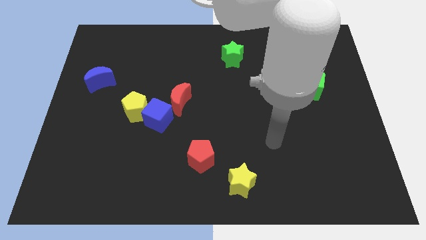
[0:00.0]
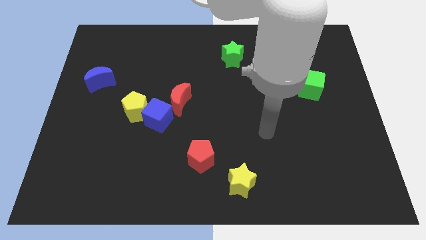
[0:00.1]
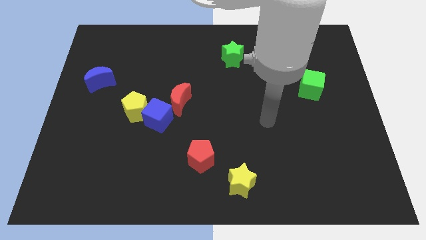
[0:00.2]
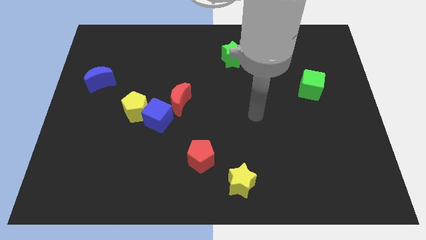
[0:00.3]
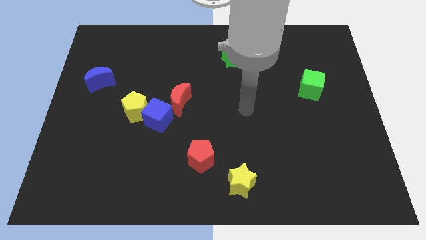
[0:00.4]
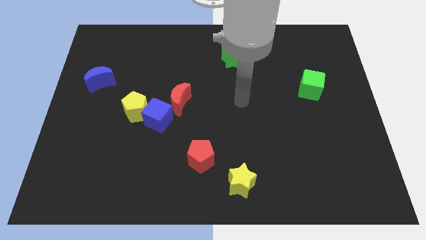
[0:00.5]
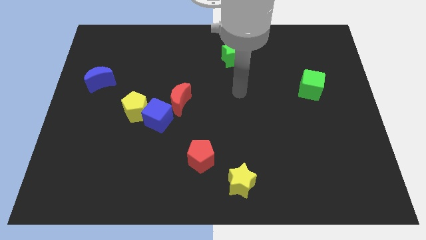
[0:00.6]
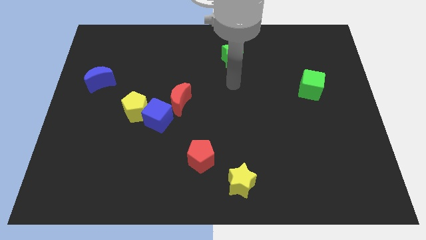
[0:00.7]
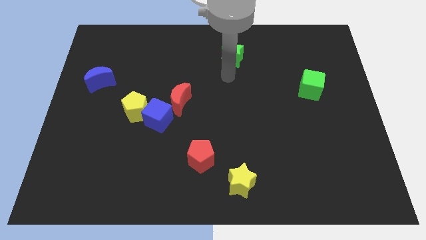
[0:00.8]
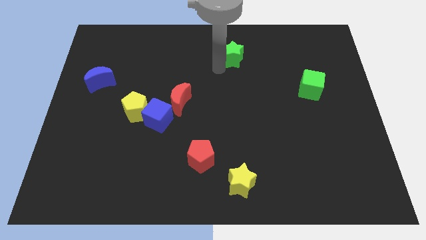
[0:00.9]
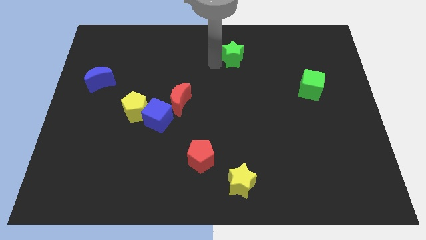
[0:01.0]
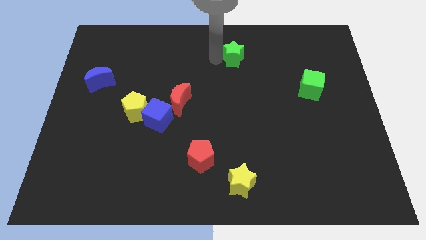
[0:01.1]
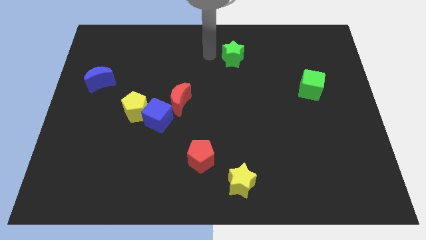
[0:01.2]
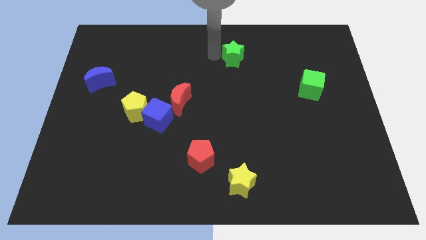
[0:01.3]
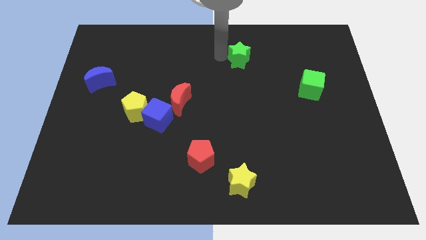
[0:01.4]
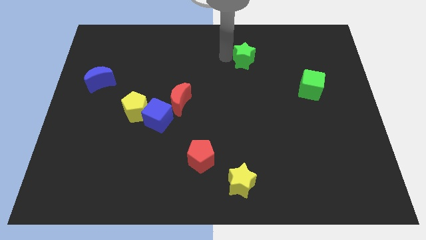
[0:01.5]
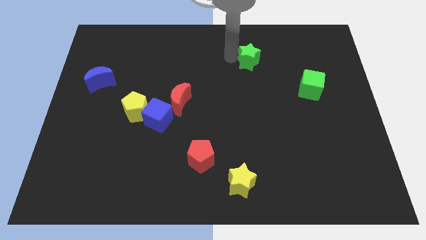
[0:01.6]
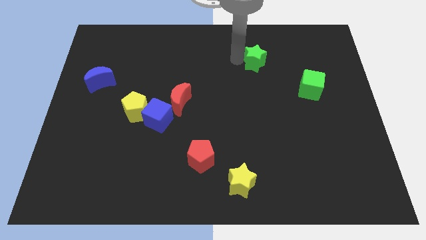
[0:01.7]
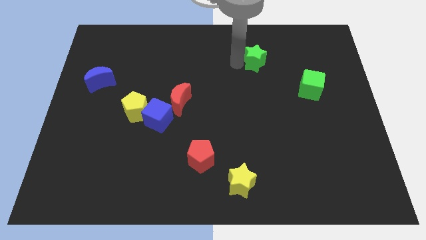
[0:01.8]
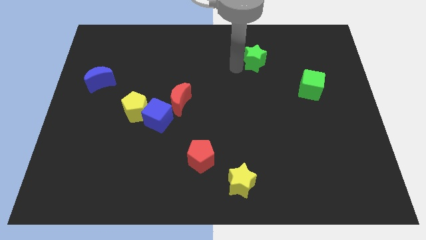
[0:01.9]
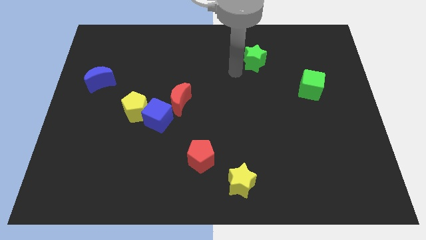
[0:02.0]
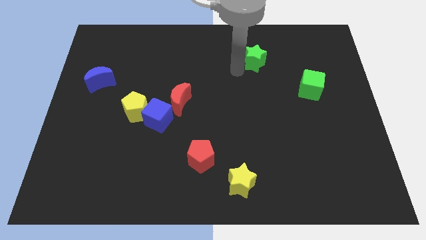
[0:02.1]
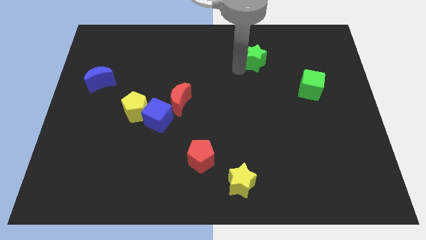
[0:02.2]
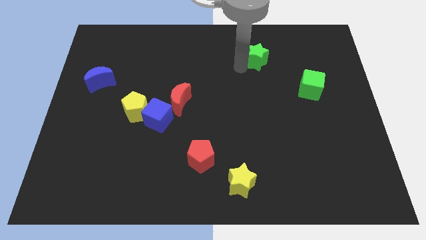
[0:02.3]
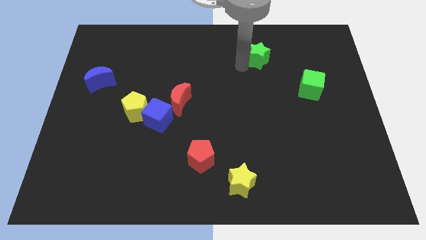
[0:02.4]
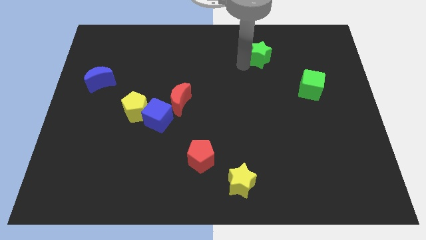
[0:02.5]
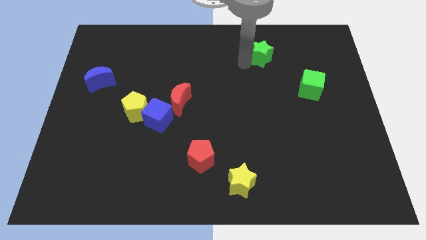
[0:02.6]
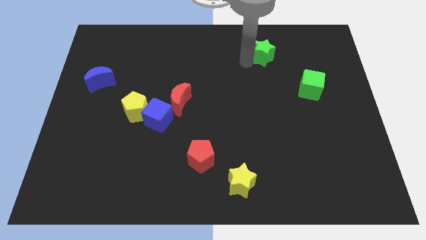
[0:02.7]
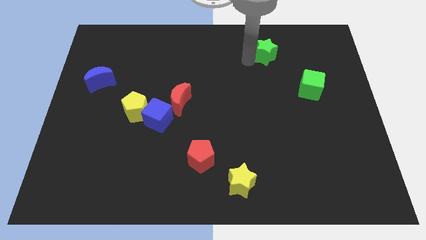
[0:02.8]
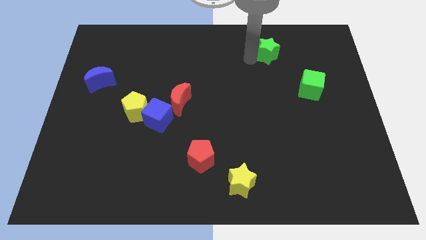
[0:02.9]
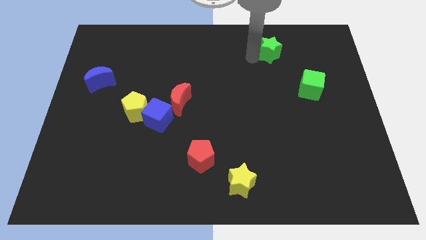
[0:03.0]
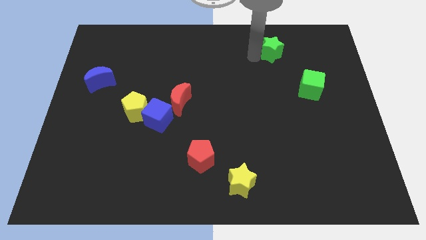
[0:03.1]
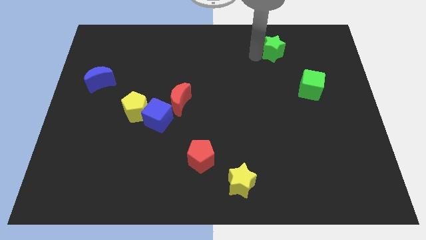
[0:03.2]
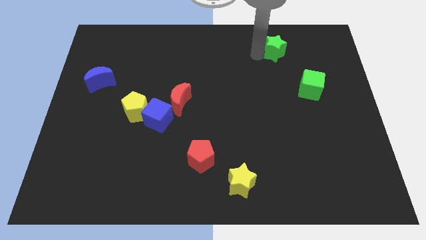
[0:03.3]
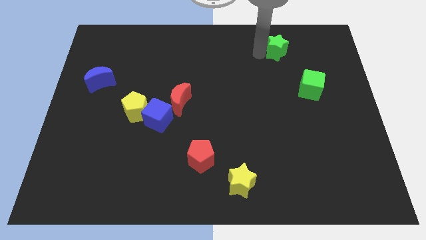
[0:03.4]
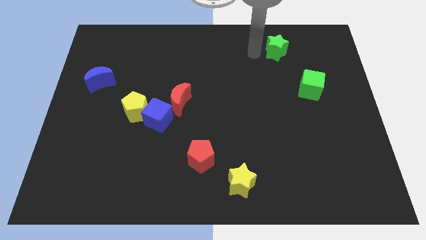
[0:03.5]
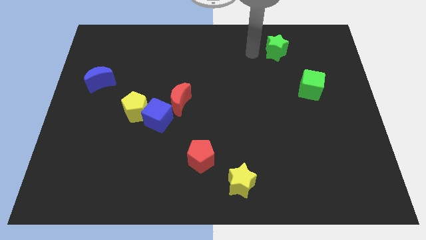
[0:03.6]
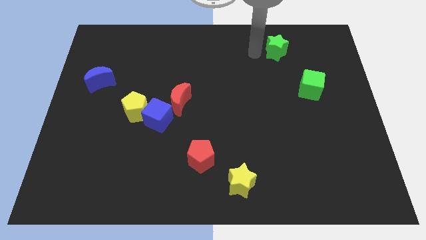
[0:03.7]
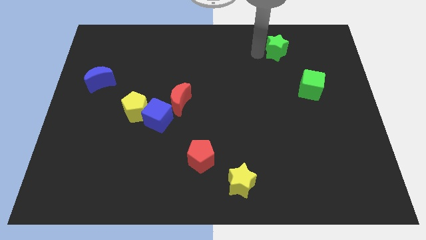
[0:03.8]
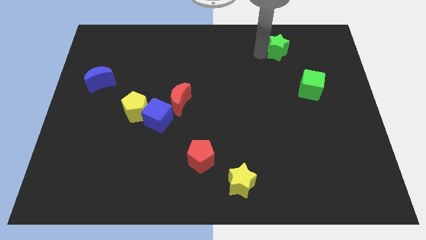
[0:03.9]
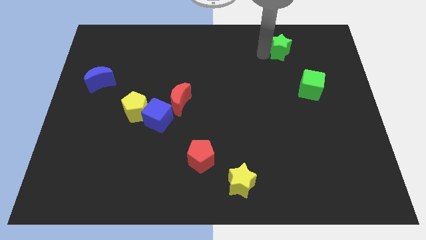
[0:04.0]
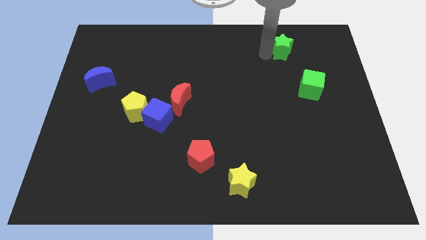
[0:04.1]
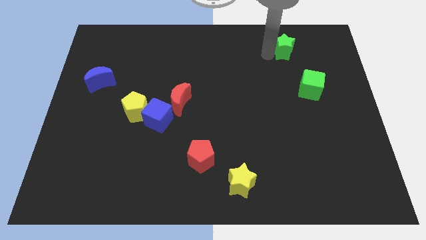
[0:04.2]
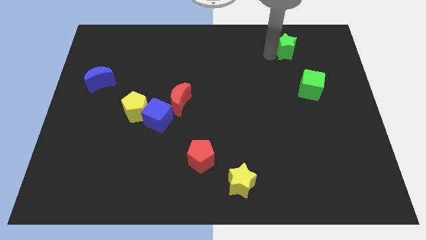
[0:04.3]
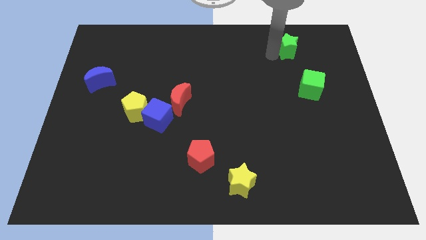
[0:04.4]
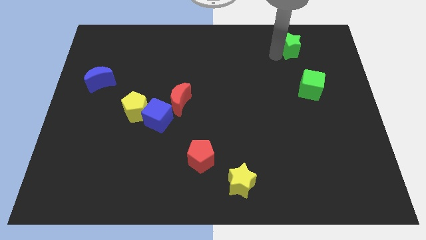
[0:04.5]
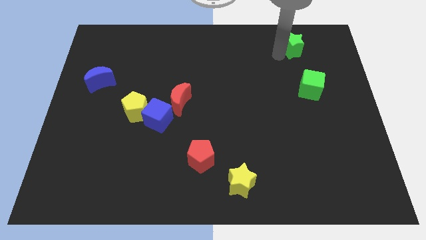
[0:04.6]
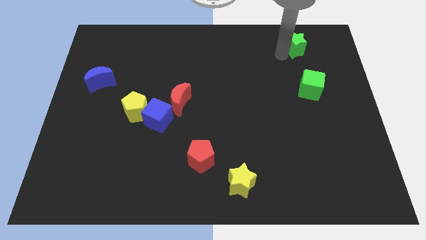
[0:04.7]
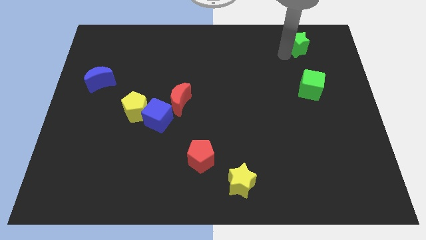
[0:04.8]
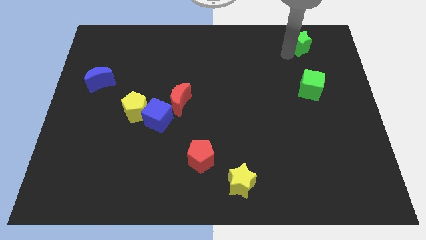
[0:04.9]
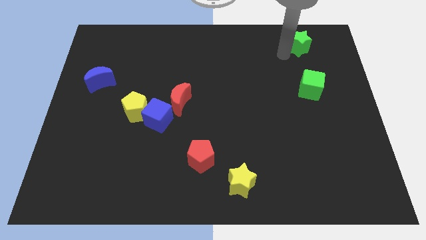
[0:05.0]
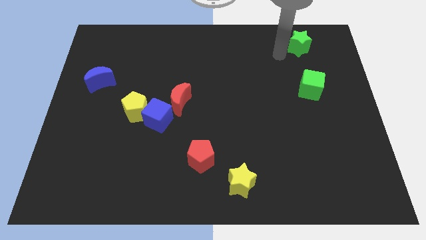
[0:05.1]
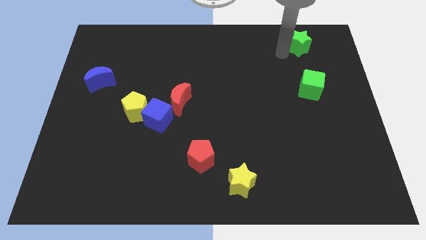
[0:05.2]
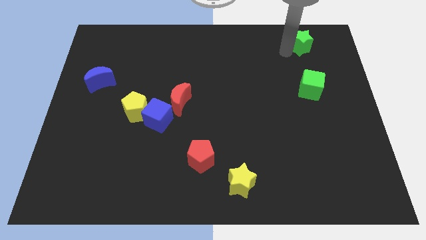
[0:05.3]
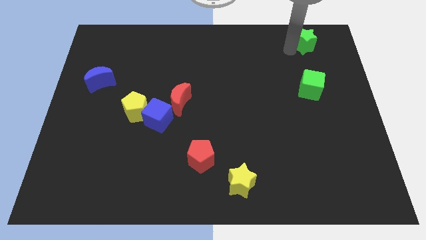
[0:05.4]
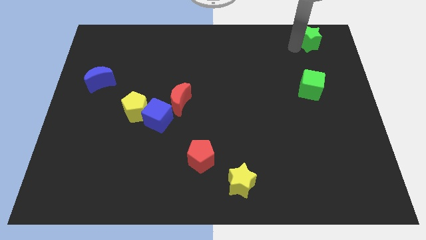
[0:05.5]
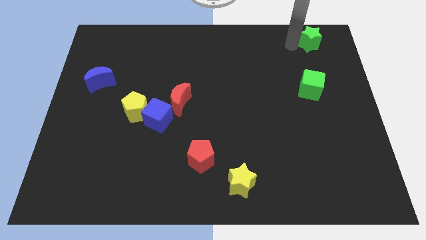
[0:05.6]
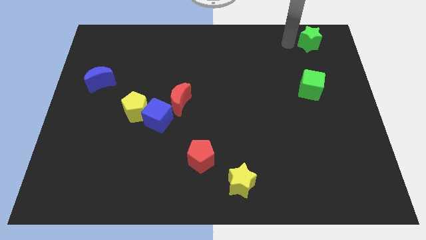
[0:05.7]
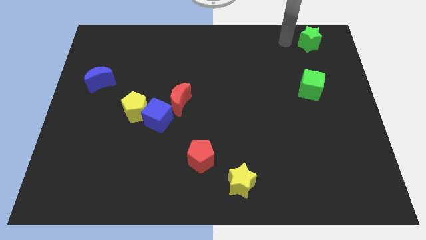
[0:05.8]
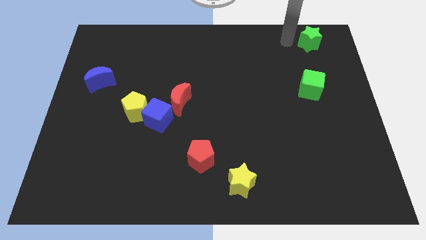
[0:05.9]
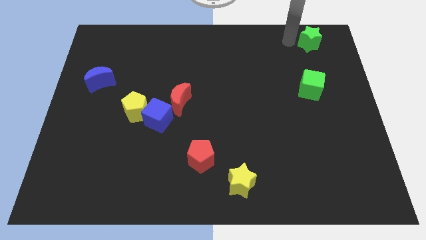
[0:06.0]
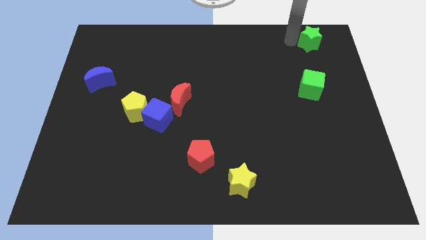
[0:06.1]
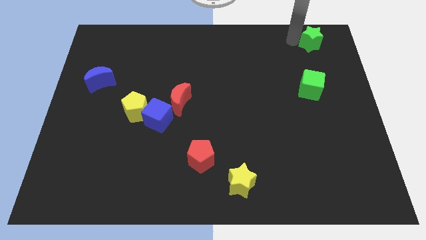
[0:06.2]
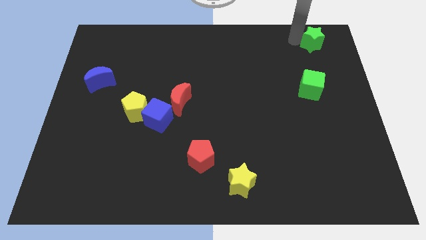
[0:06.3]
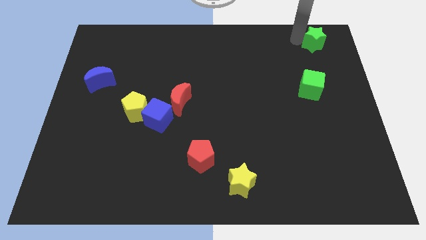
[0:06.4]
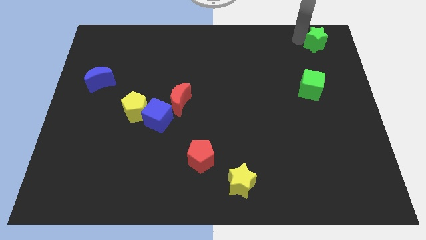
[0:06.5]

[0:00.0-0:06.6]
push the green star to the top right of the board
